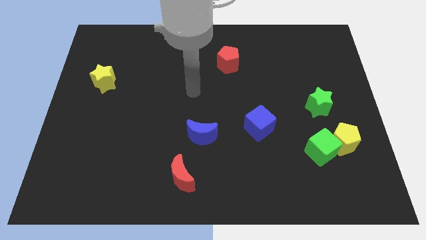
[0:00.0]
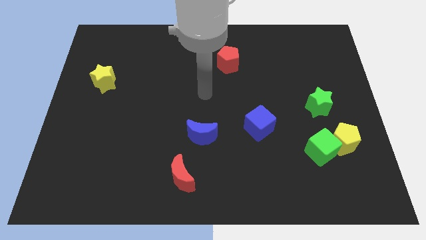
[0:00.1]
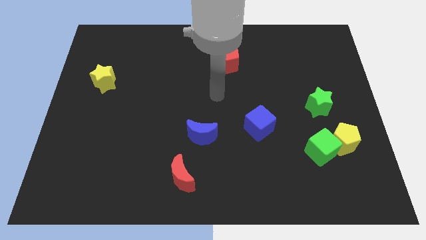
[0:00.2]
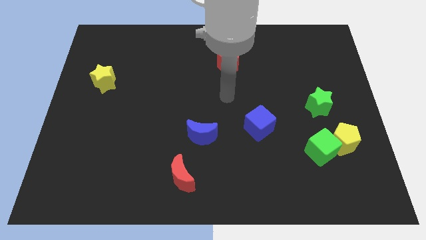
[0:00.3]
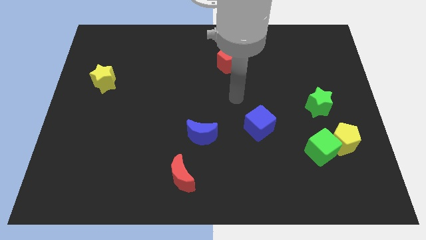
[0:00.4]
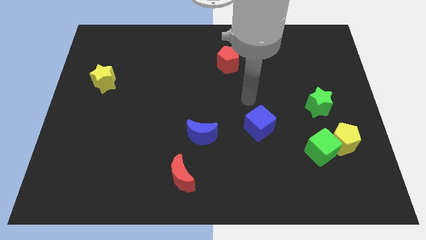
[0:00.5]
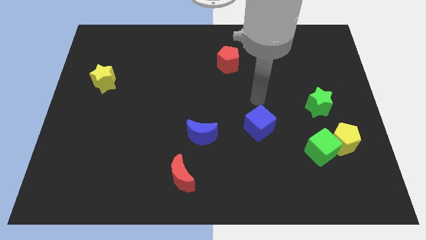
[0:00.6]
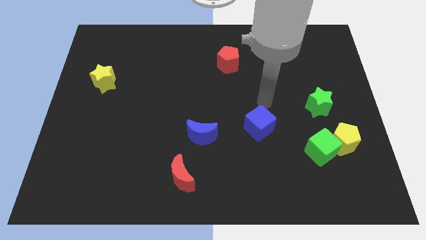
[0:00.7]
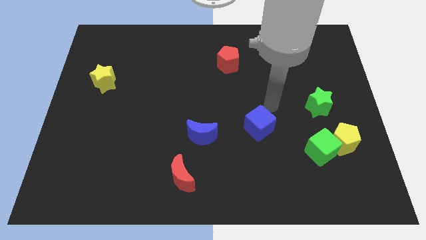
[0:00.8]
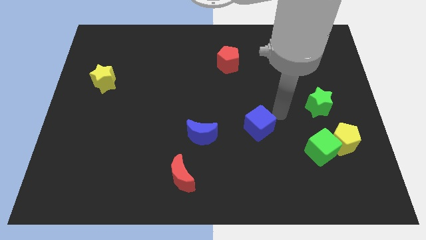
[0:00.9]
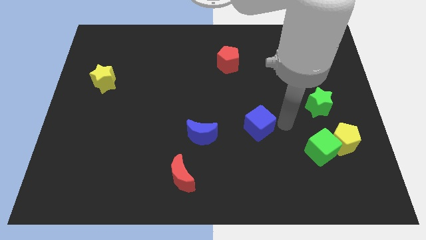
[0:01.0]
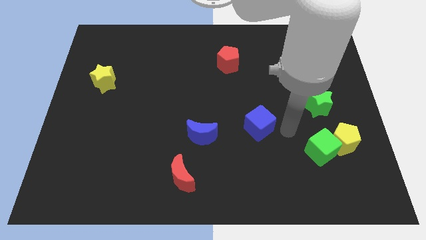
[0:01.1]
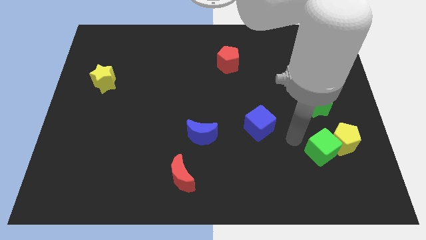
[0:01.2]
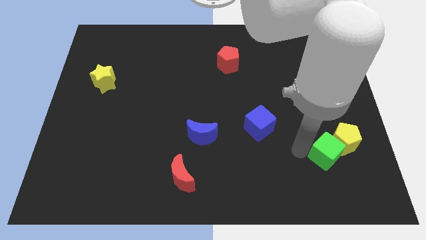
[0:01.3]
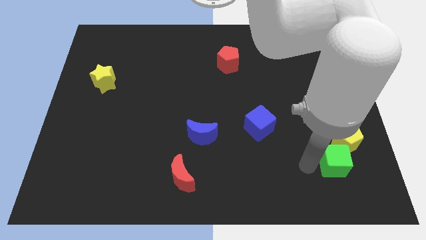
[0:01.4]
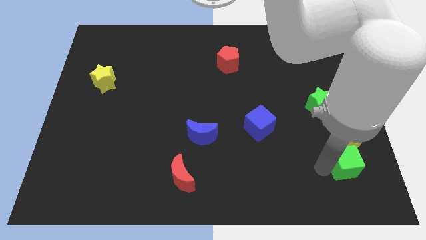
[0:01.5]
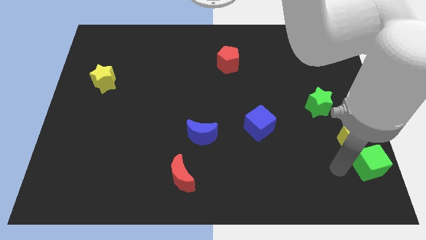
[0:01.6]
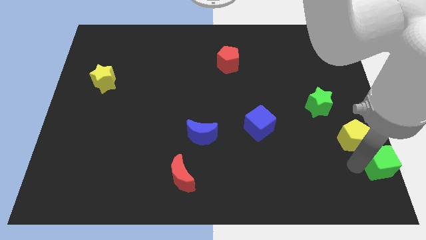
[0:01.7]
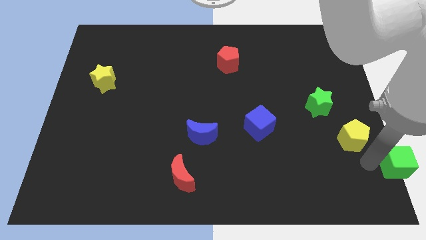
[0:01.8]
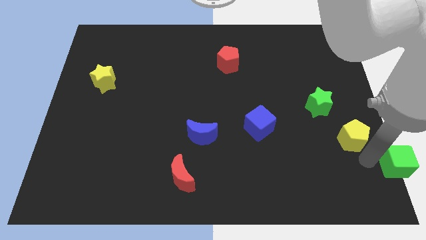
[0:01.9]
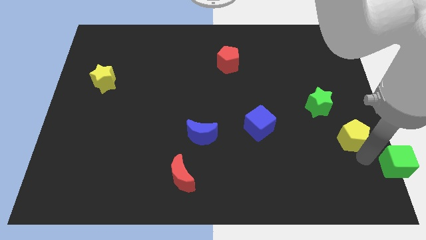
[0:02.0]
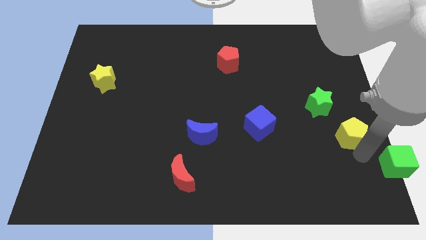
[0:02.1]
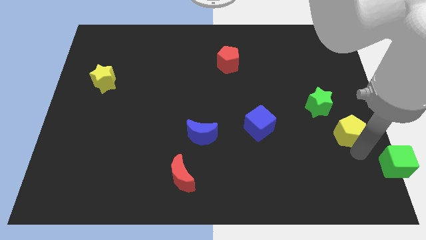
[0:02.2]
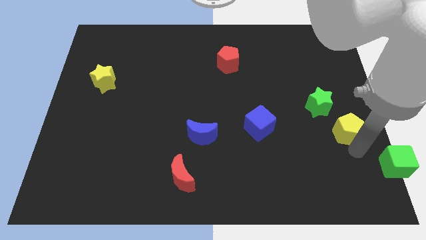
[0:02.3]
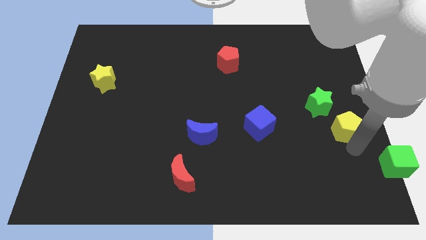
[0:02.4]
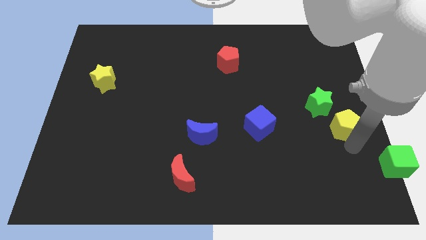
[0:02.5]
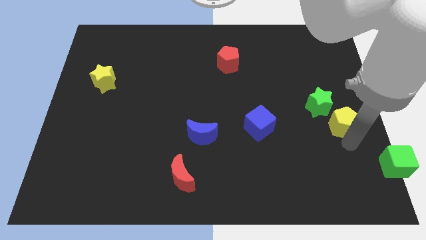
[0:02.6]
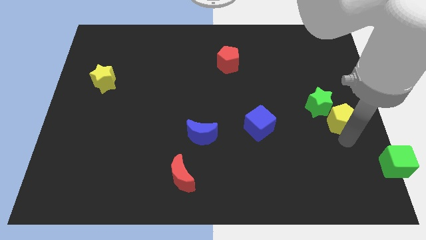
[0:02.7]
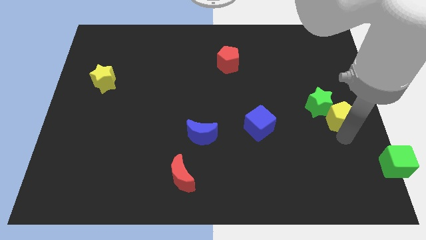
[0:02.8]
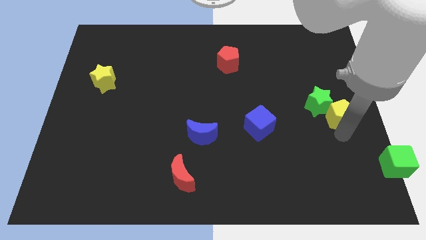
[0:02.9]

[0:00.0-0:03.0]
slightly move the yellow pentagon up

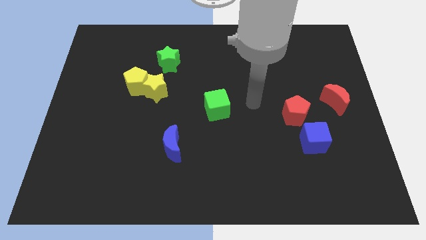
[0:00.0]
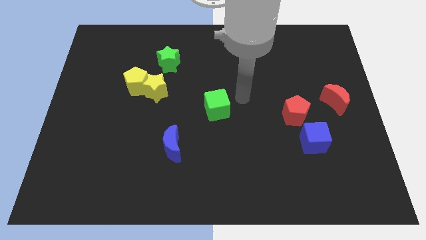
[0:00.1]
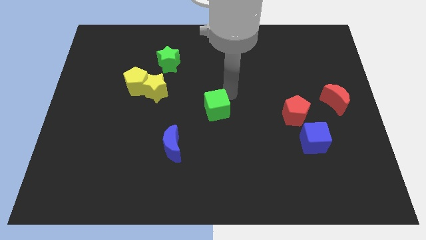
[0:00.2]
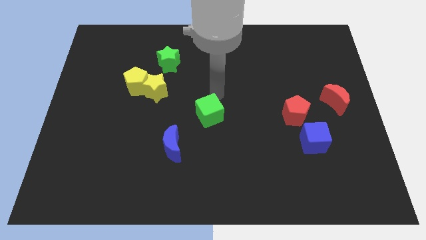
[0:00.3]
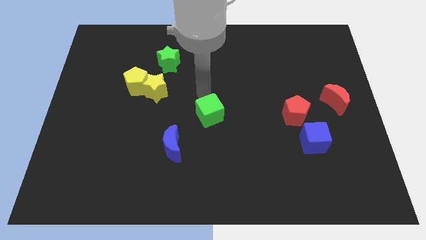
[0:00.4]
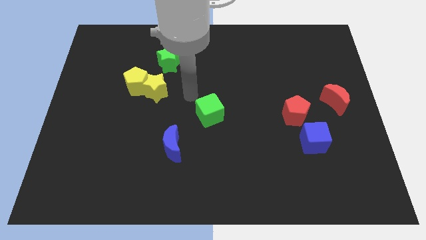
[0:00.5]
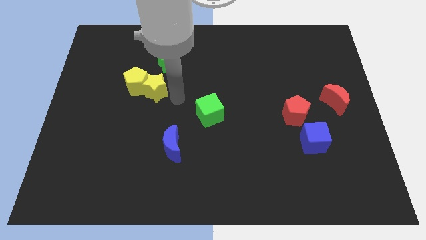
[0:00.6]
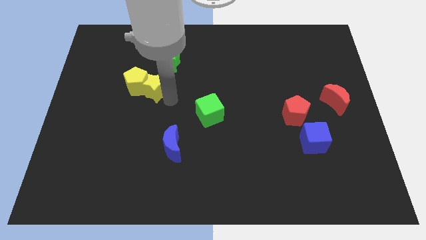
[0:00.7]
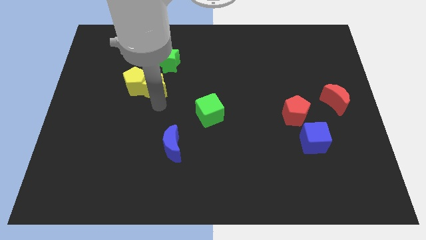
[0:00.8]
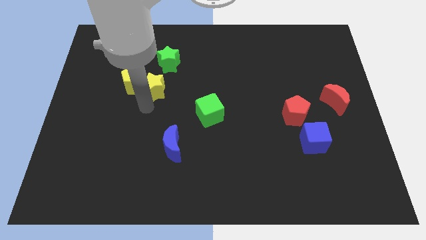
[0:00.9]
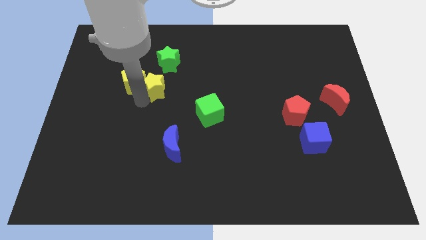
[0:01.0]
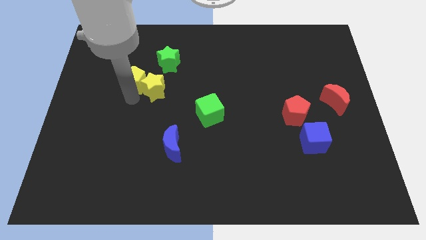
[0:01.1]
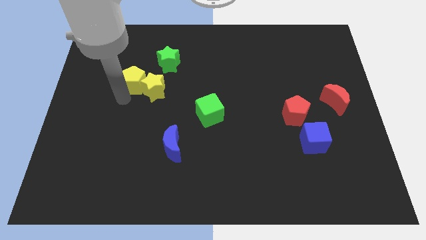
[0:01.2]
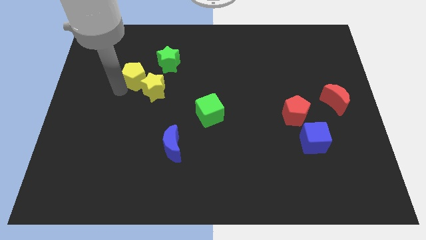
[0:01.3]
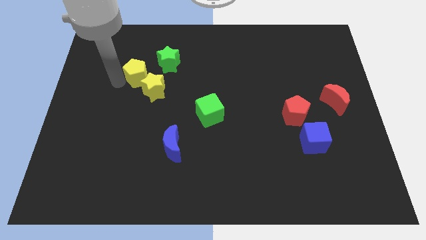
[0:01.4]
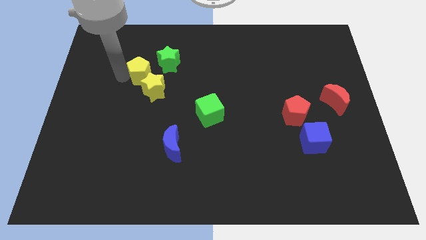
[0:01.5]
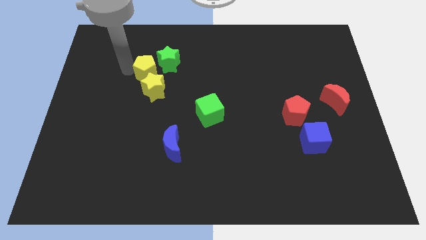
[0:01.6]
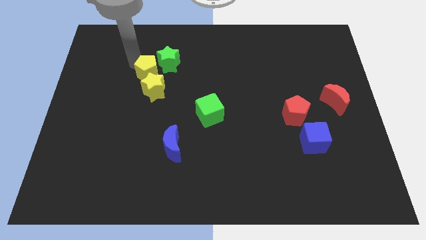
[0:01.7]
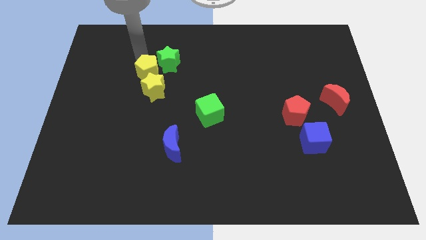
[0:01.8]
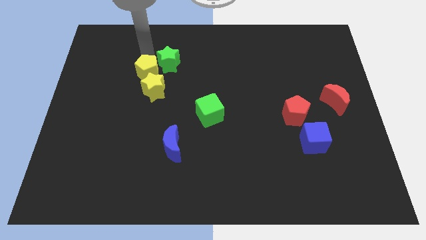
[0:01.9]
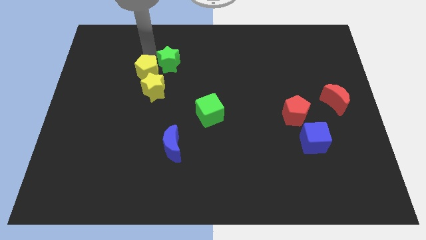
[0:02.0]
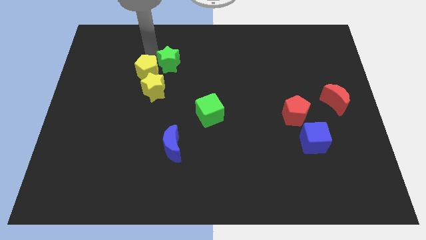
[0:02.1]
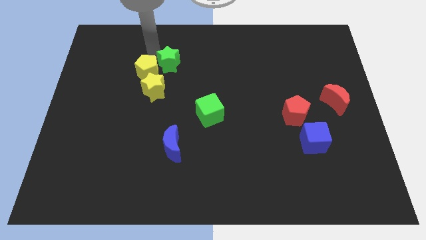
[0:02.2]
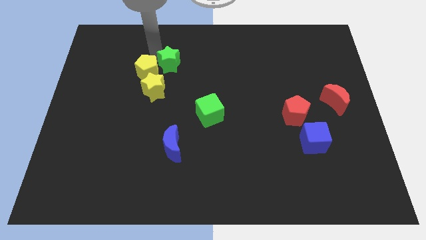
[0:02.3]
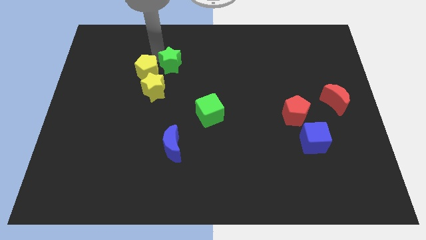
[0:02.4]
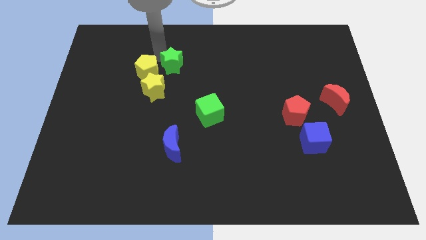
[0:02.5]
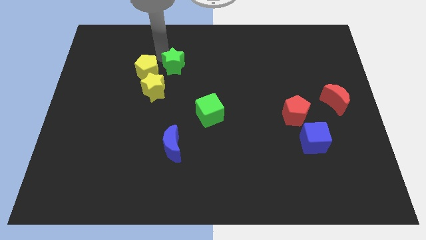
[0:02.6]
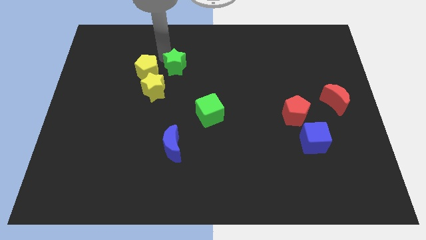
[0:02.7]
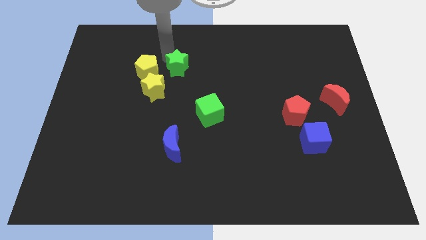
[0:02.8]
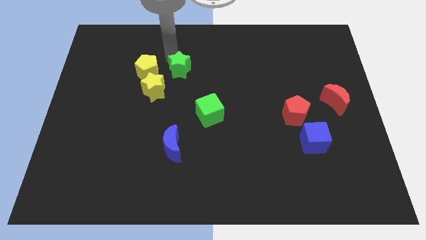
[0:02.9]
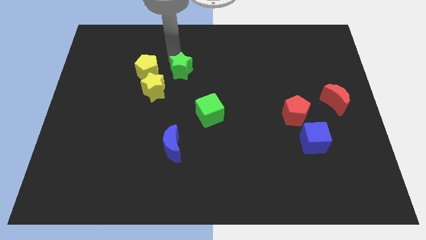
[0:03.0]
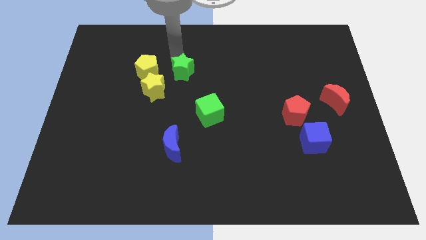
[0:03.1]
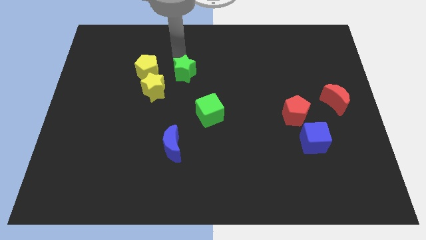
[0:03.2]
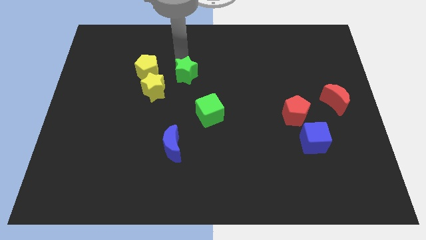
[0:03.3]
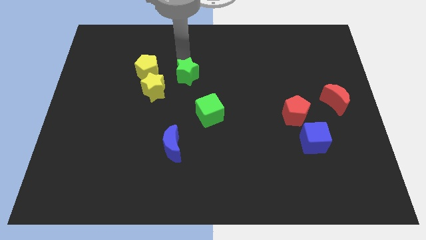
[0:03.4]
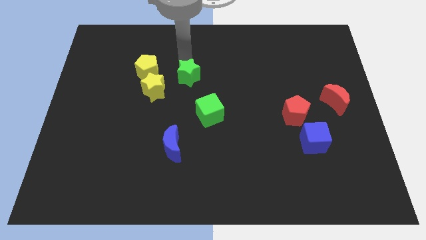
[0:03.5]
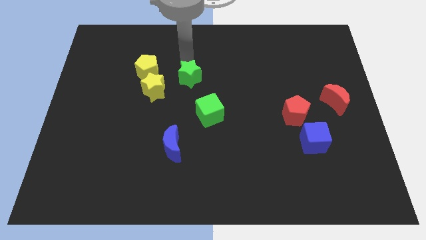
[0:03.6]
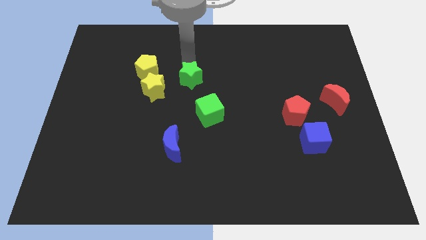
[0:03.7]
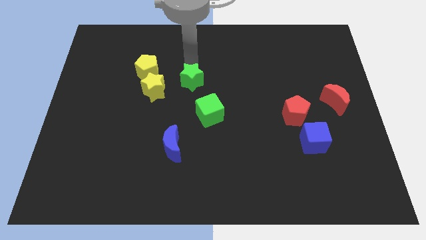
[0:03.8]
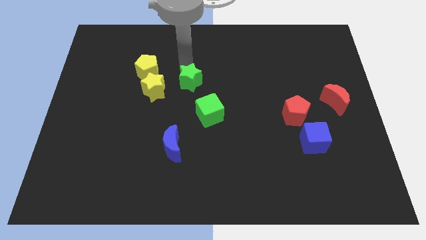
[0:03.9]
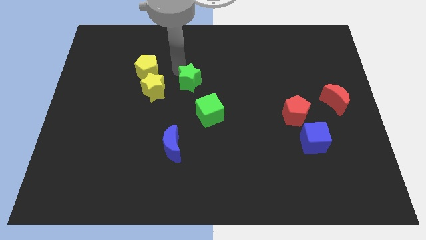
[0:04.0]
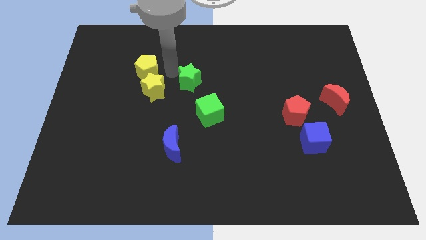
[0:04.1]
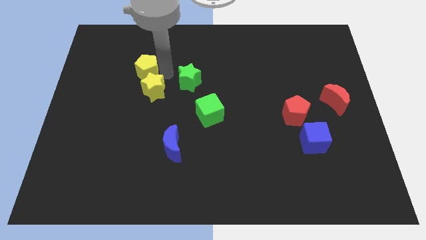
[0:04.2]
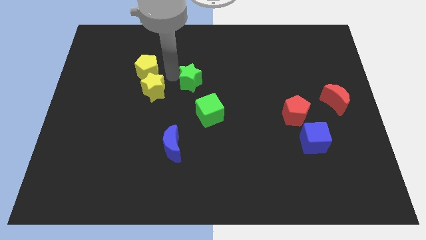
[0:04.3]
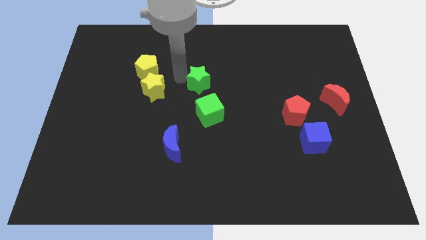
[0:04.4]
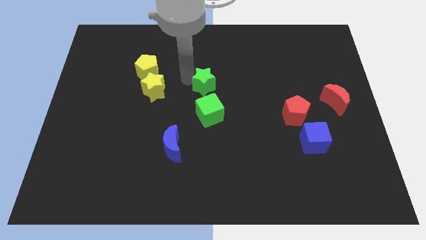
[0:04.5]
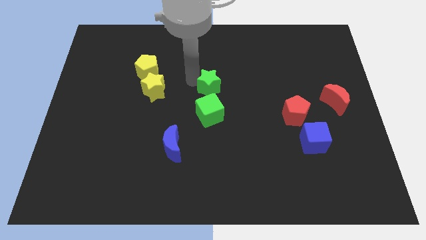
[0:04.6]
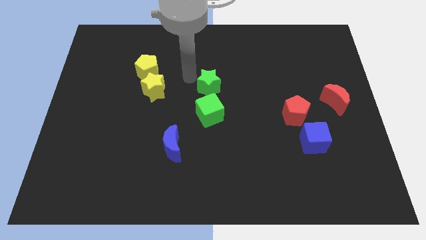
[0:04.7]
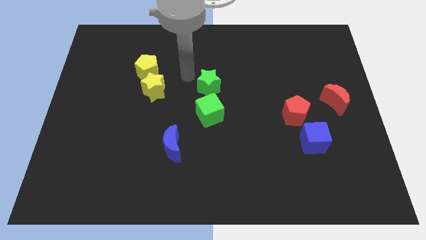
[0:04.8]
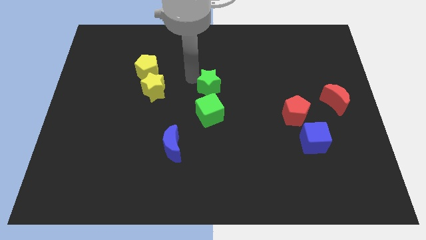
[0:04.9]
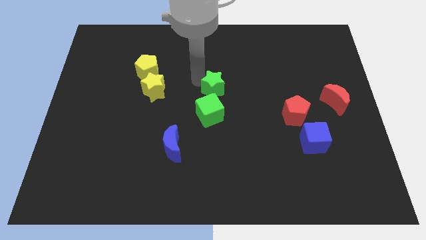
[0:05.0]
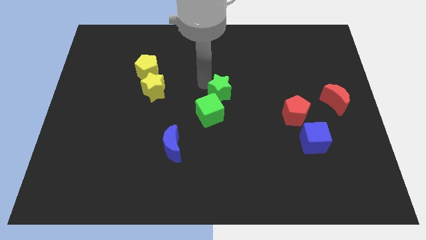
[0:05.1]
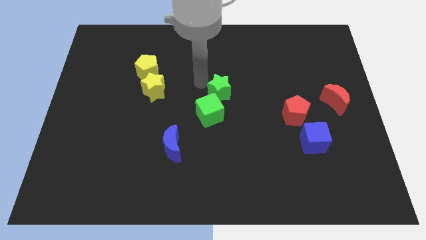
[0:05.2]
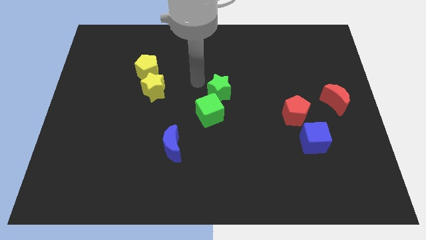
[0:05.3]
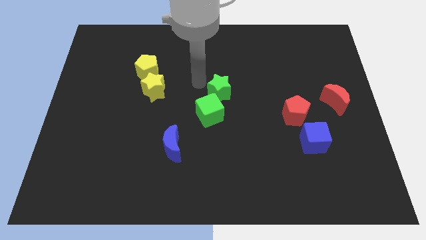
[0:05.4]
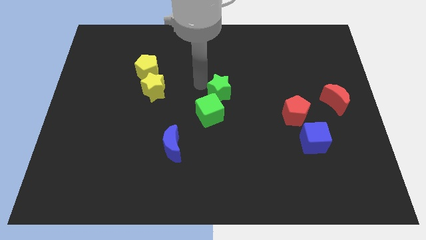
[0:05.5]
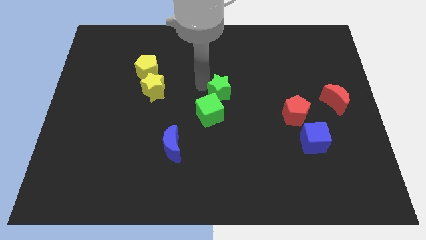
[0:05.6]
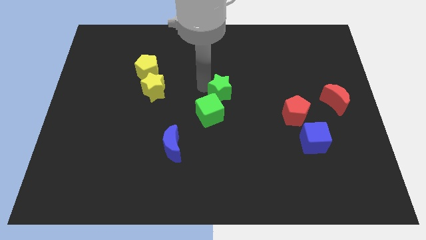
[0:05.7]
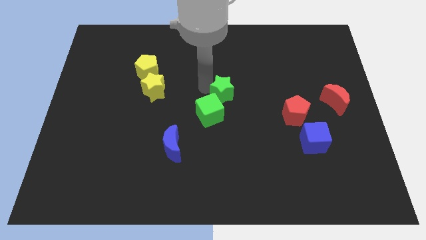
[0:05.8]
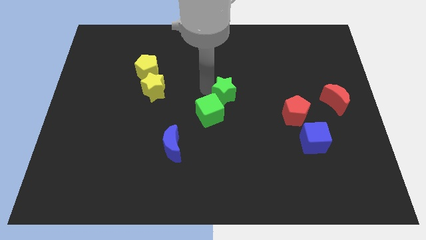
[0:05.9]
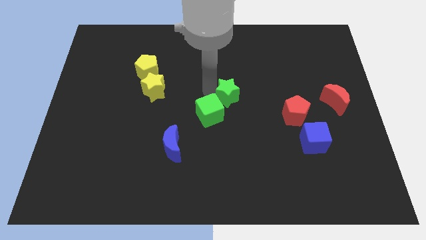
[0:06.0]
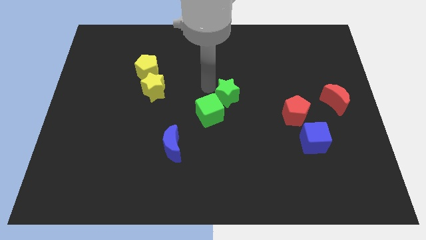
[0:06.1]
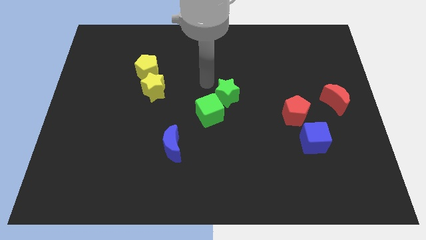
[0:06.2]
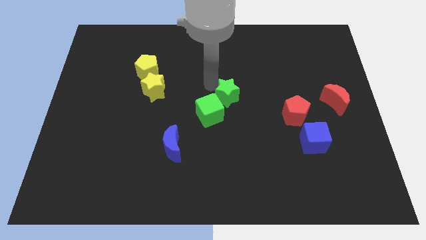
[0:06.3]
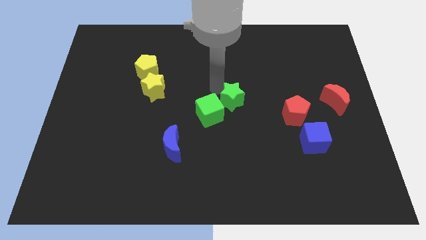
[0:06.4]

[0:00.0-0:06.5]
slide the green star diagonally down and to the right
